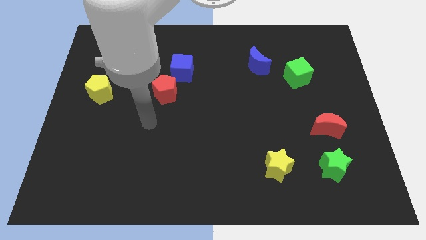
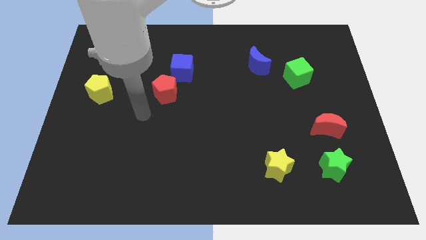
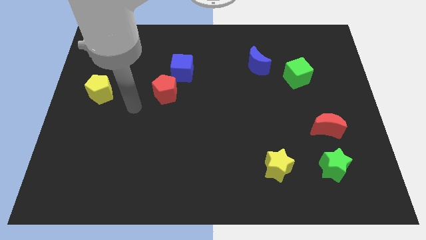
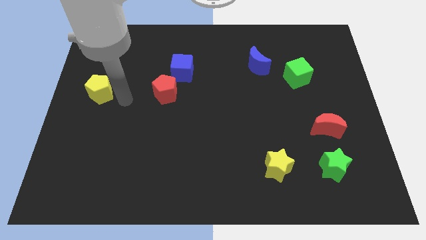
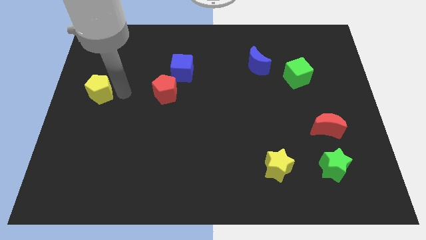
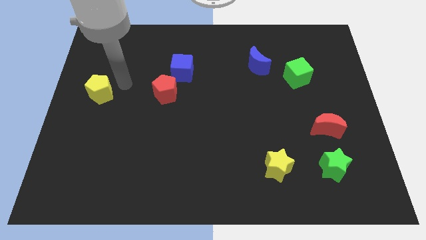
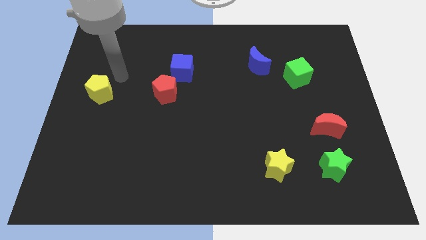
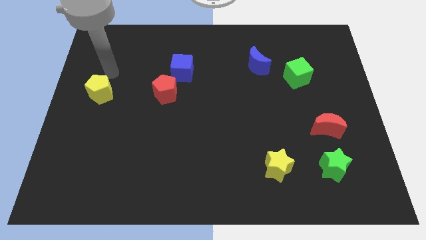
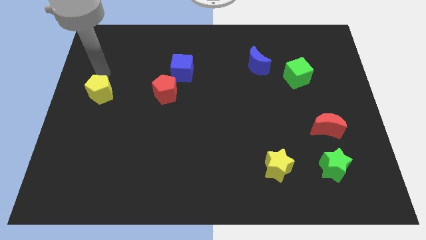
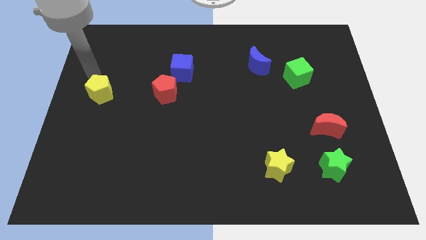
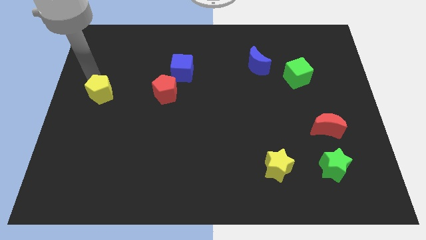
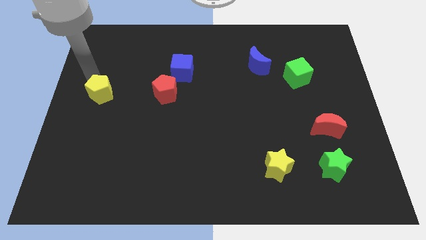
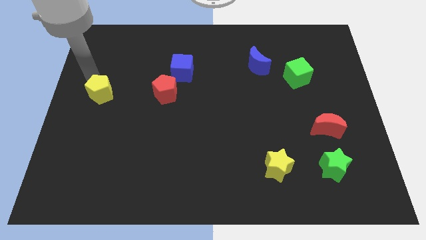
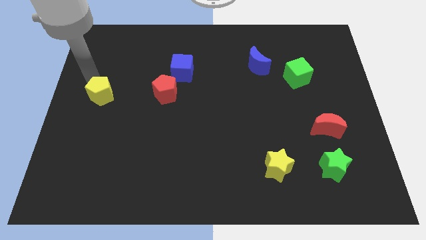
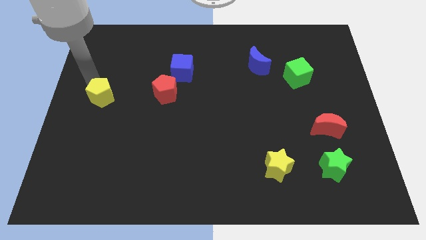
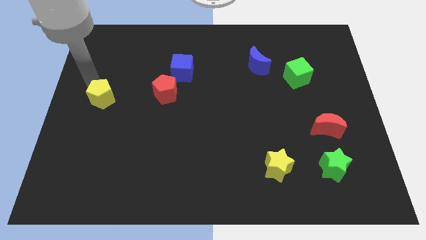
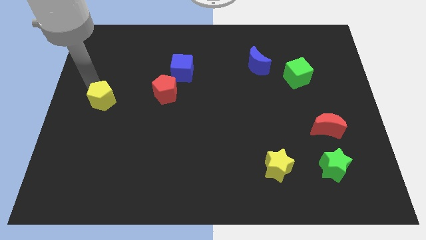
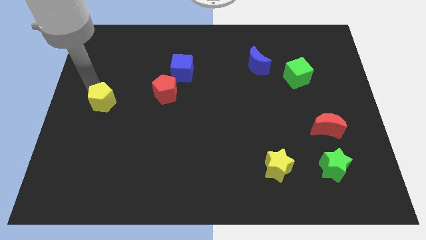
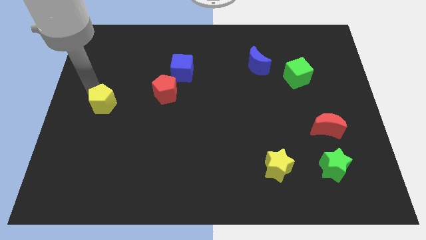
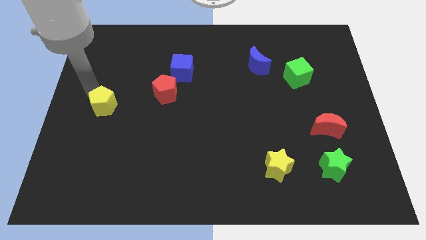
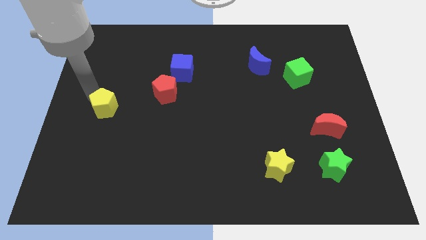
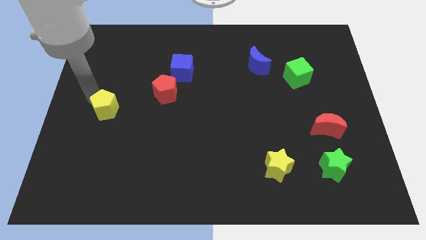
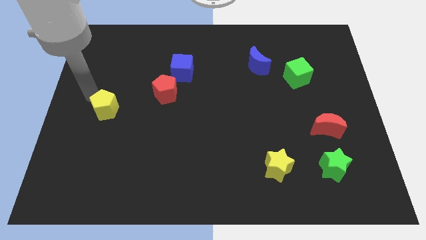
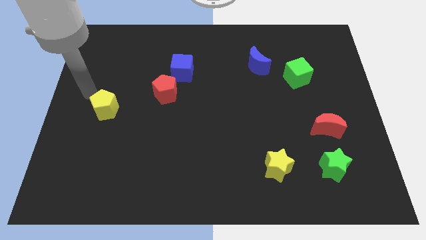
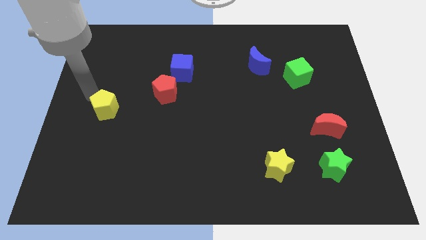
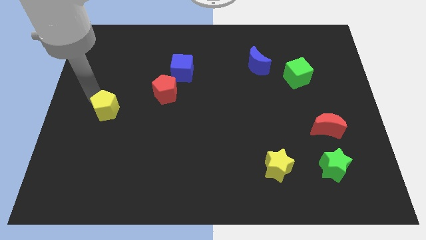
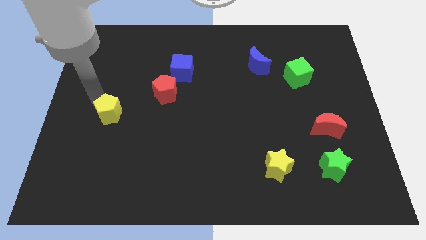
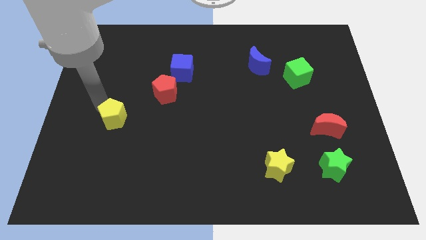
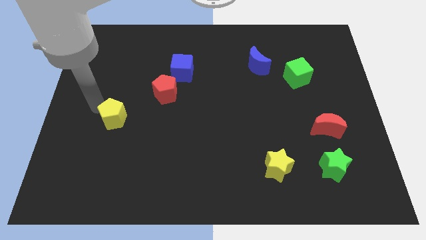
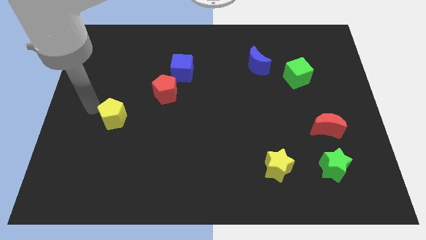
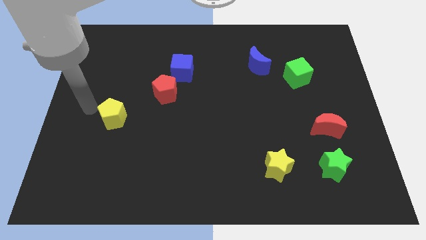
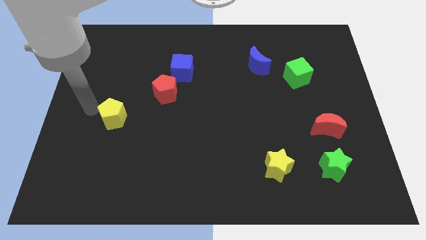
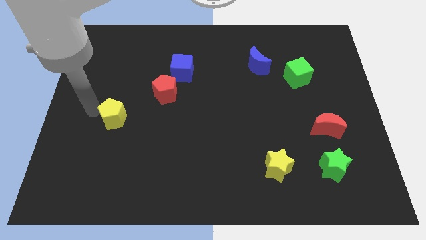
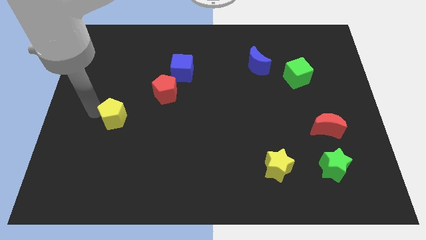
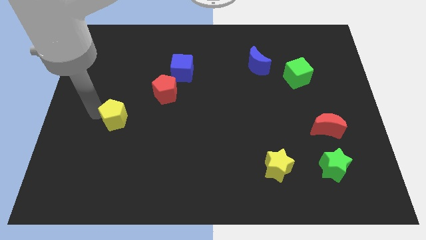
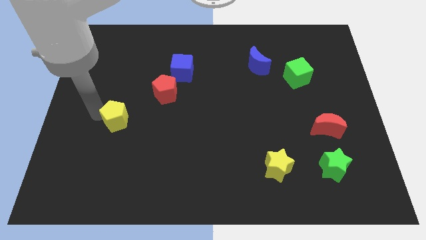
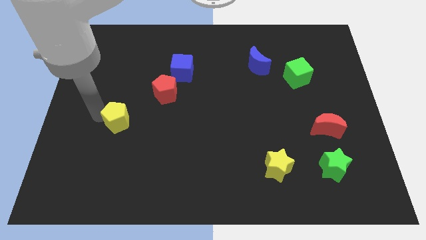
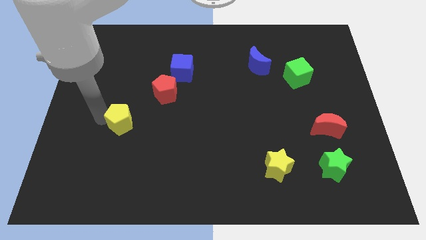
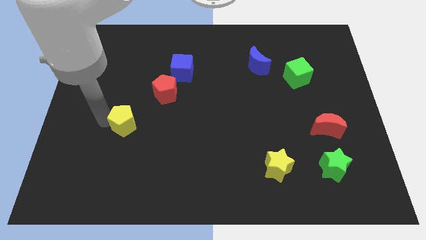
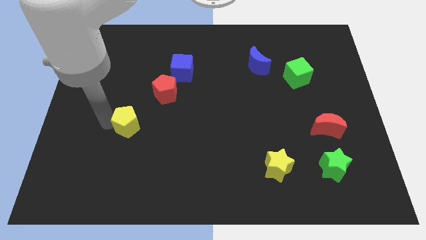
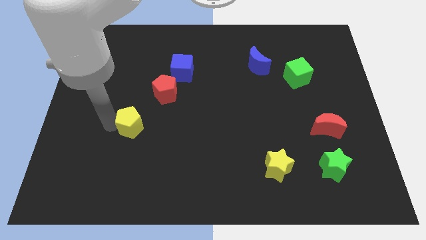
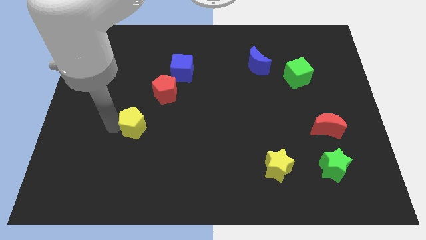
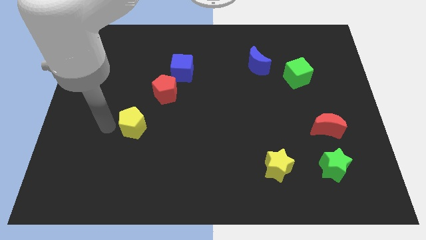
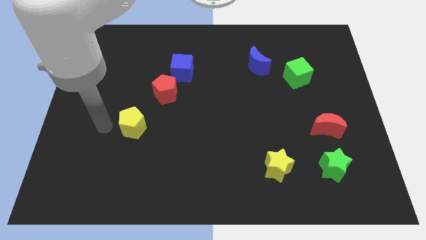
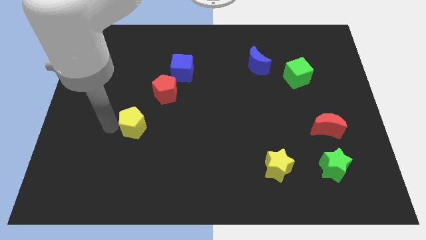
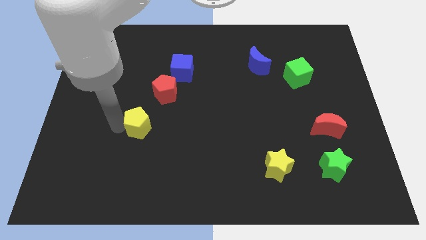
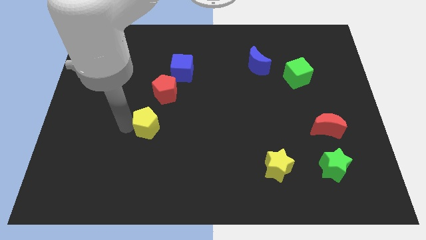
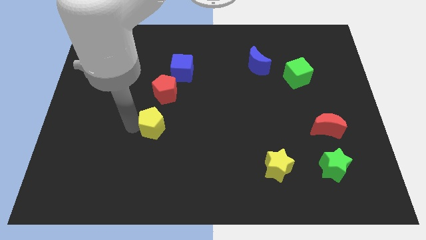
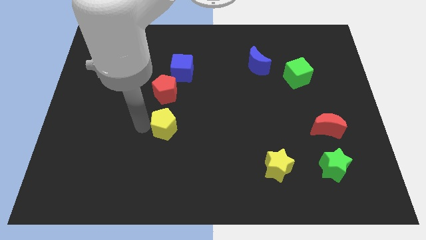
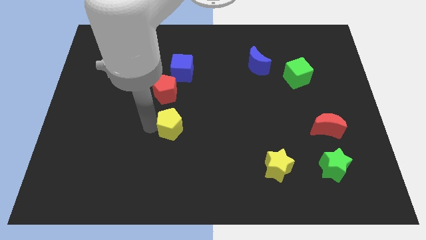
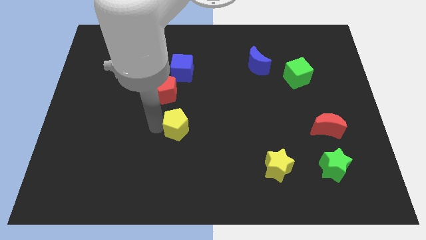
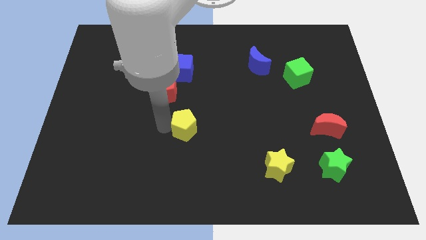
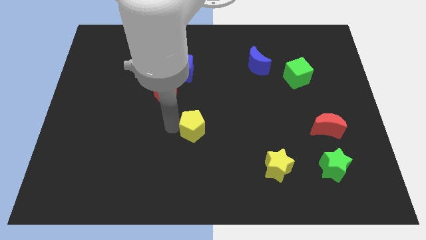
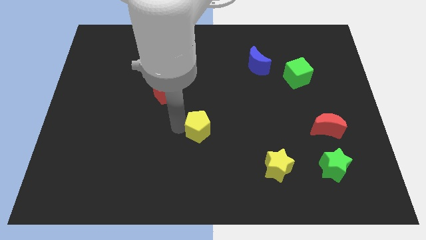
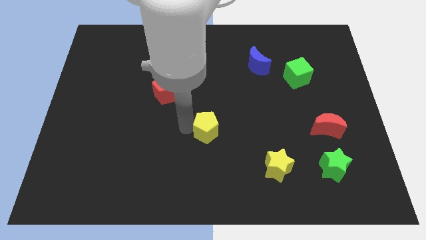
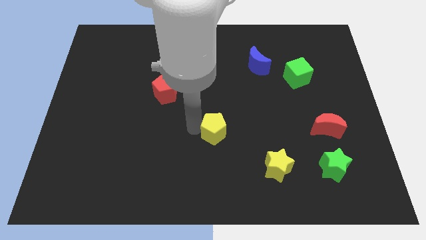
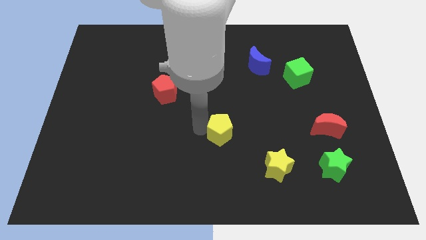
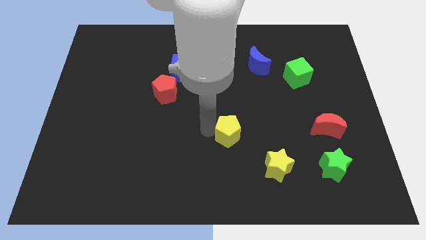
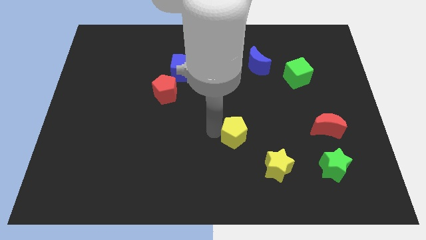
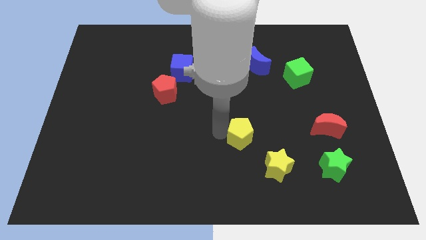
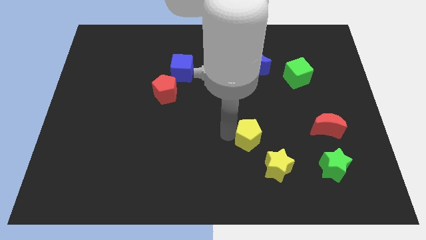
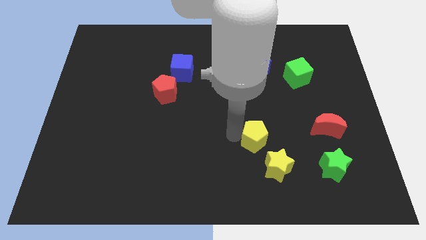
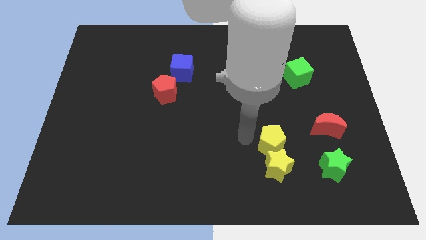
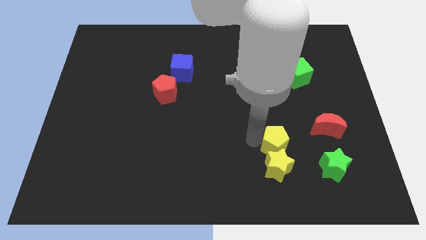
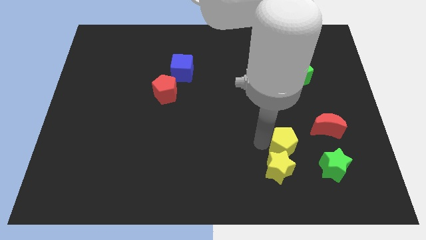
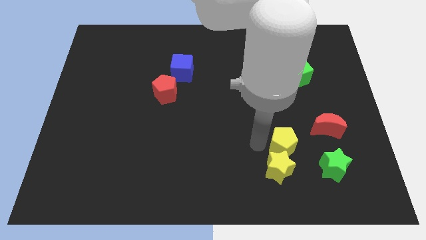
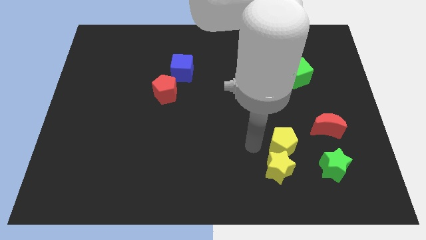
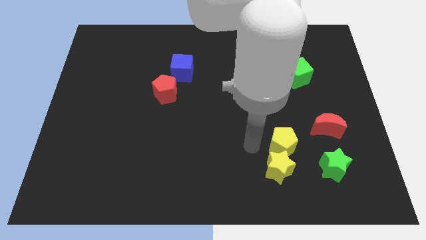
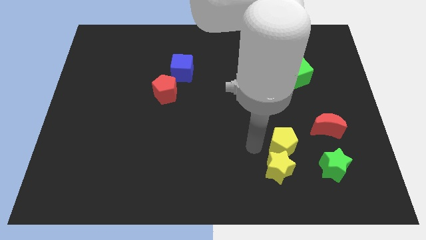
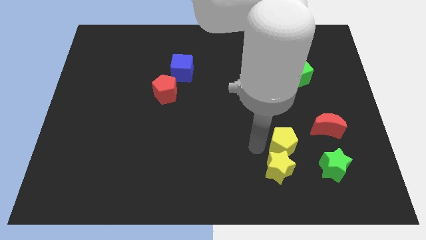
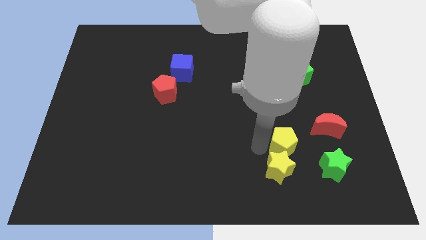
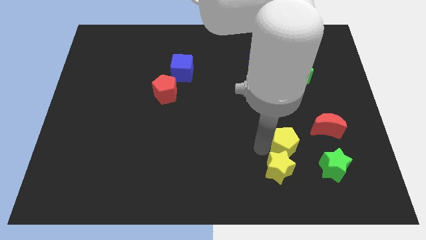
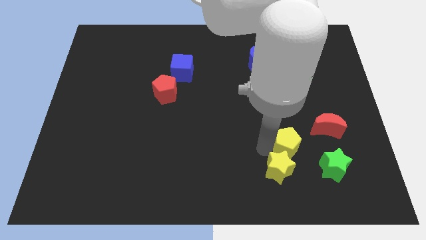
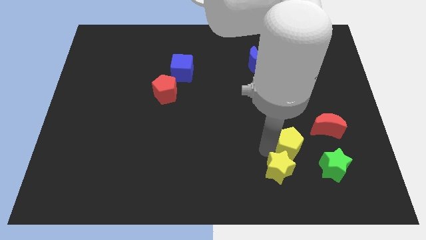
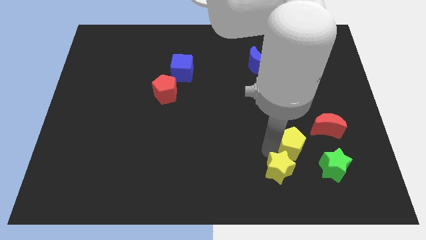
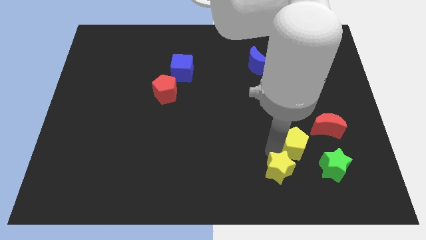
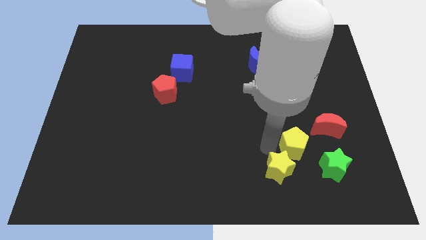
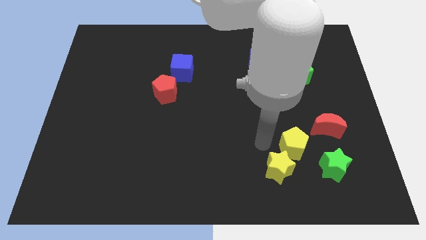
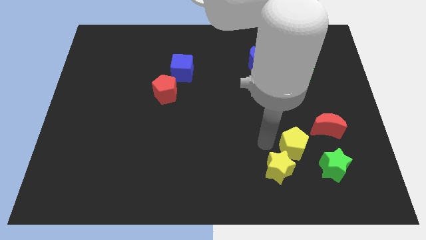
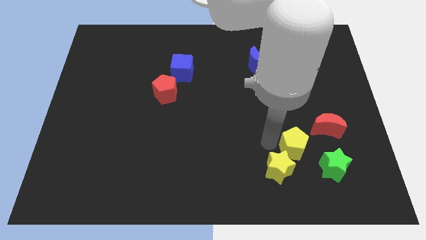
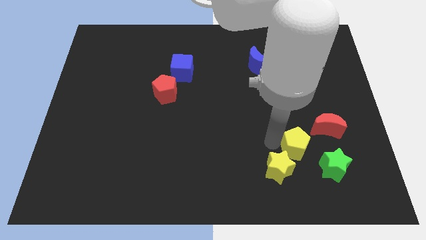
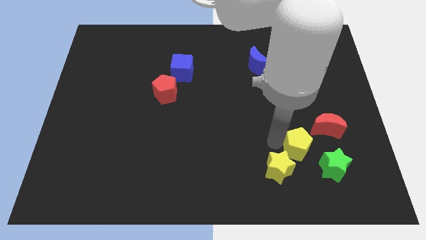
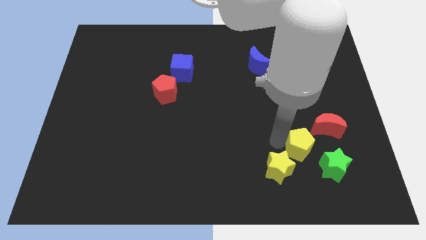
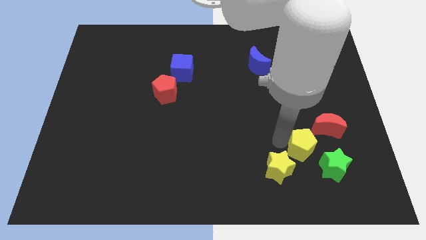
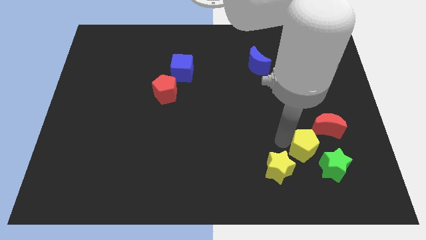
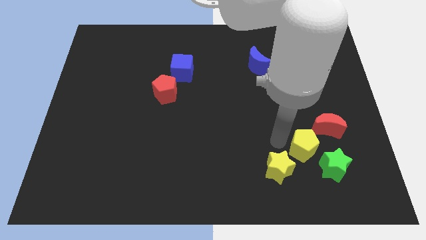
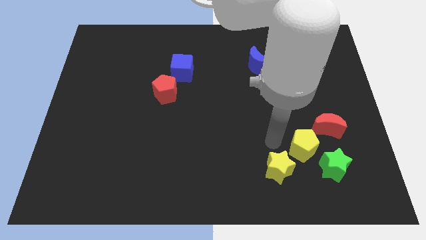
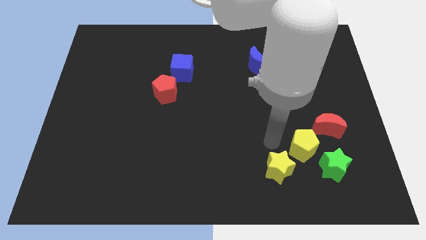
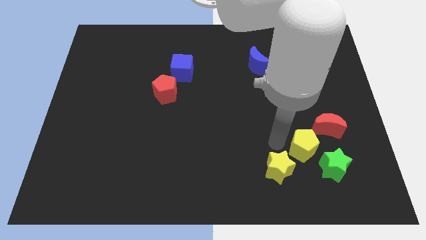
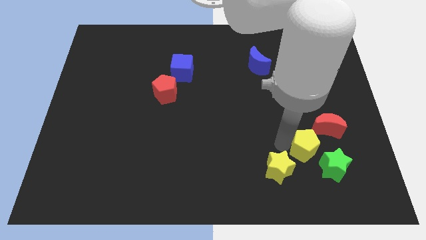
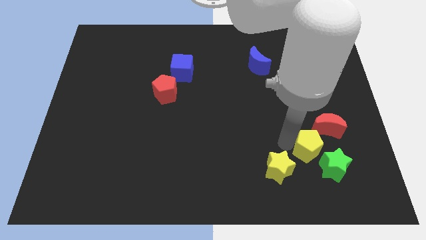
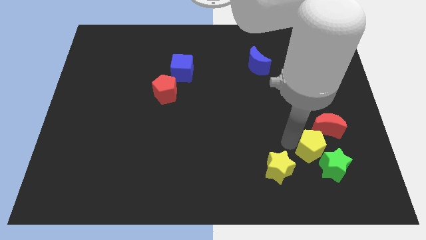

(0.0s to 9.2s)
put the yellow pentagon close to the green star
